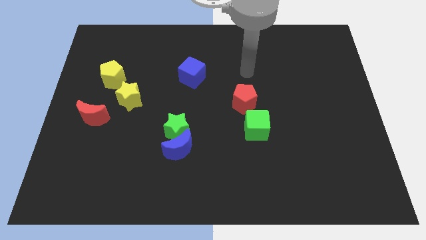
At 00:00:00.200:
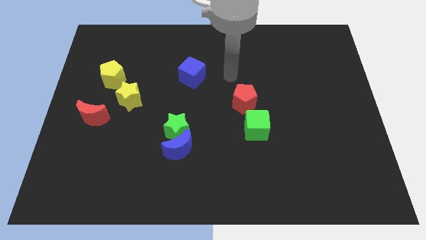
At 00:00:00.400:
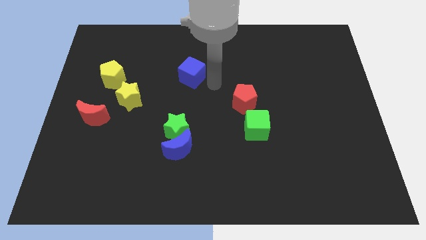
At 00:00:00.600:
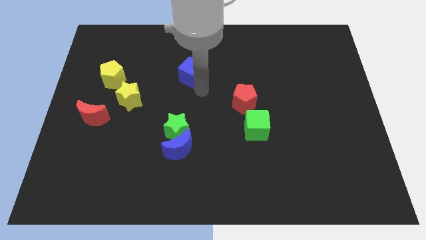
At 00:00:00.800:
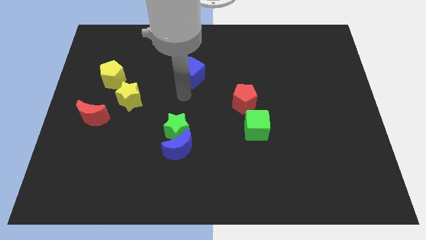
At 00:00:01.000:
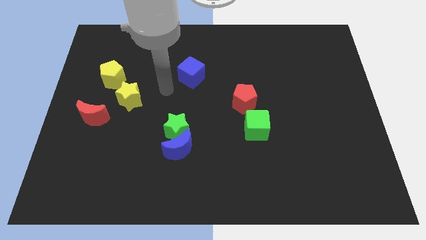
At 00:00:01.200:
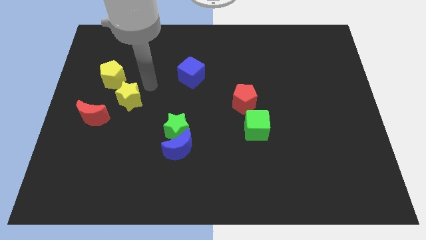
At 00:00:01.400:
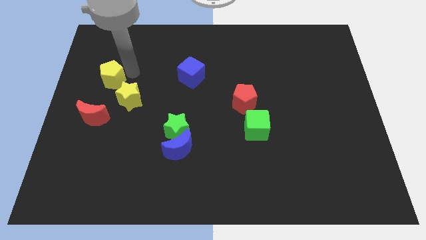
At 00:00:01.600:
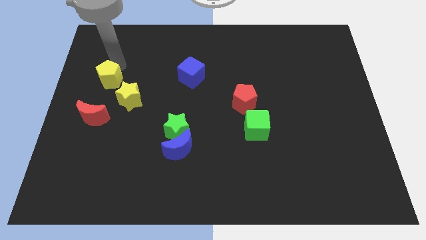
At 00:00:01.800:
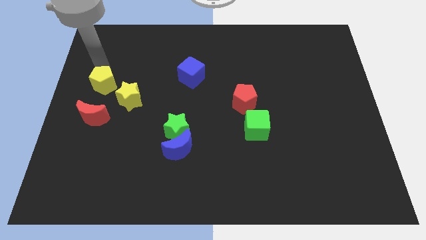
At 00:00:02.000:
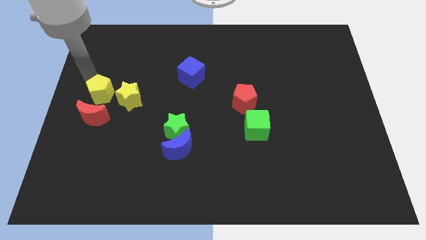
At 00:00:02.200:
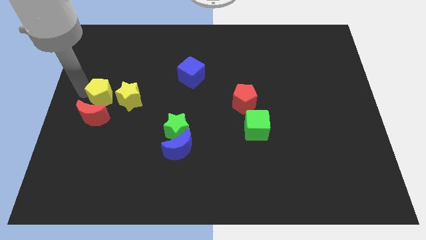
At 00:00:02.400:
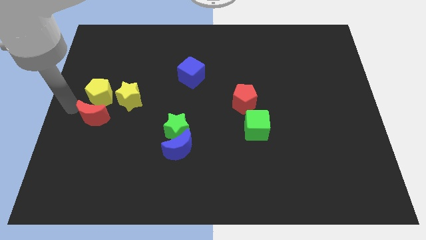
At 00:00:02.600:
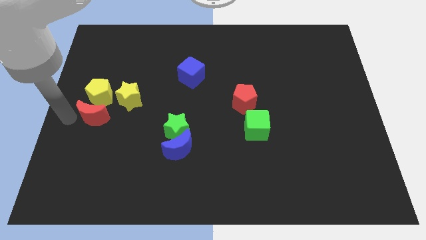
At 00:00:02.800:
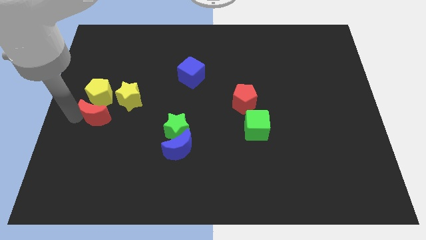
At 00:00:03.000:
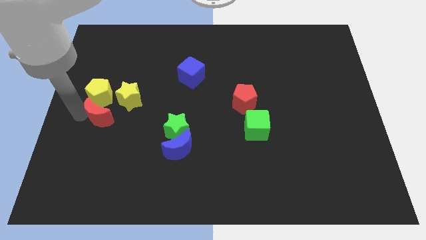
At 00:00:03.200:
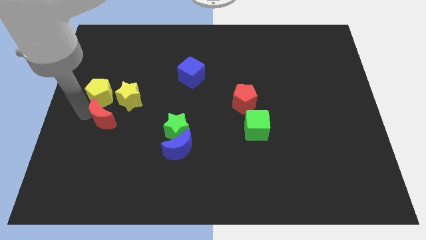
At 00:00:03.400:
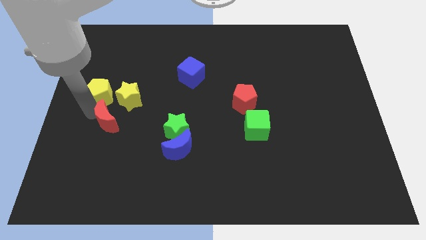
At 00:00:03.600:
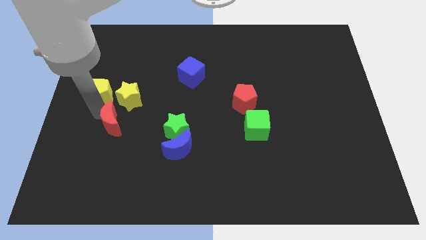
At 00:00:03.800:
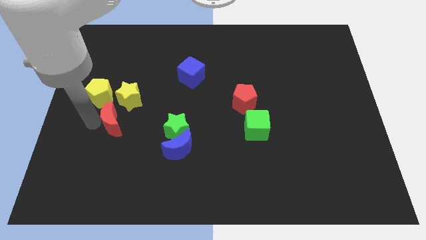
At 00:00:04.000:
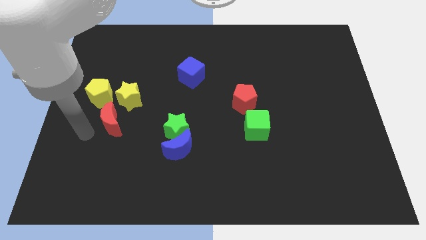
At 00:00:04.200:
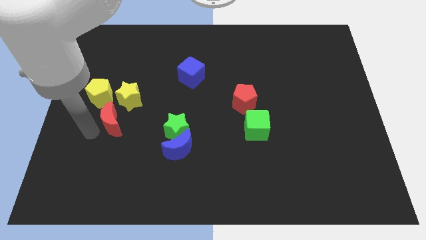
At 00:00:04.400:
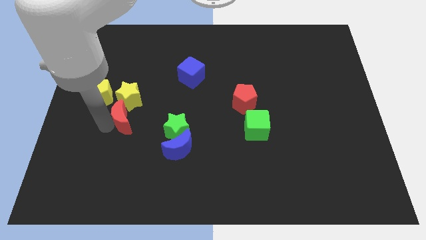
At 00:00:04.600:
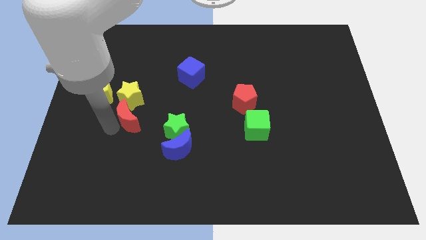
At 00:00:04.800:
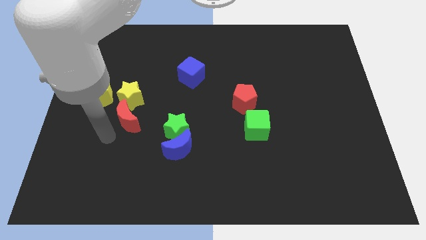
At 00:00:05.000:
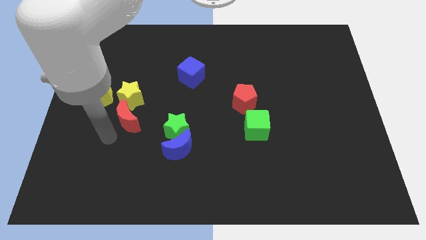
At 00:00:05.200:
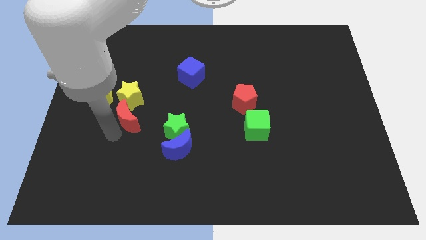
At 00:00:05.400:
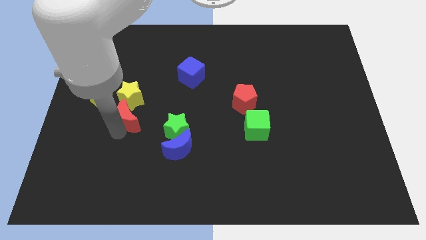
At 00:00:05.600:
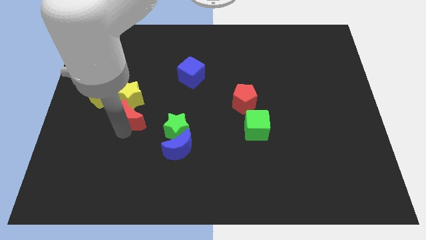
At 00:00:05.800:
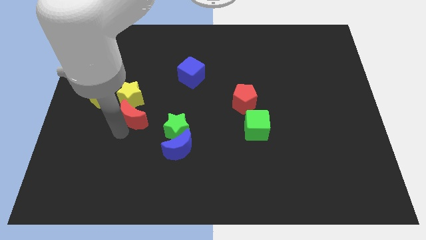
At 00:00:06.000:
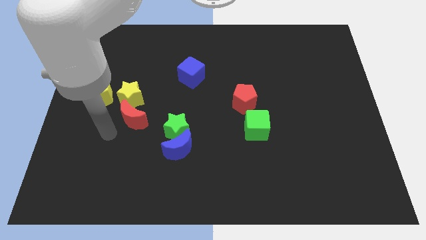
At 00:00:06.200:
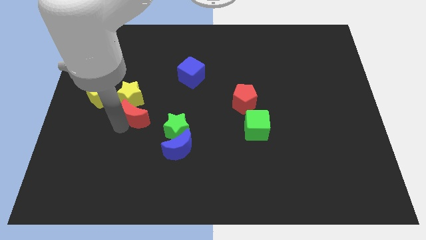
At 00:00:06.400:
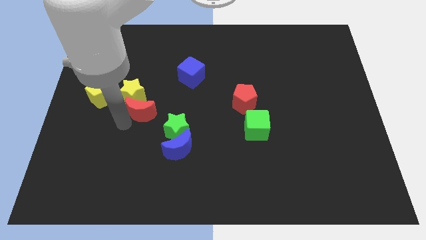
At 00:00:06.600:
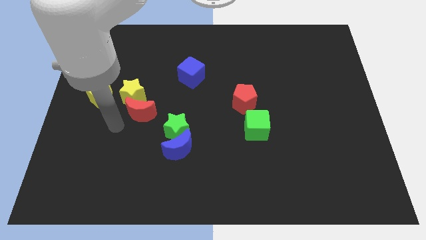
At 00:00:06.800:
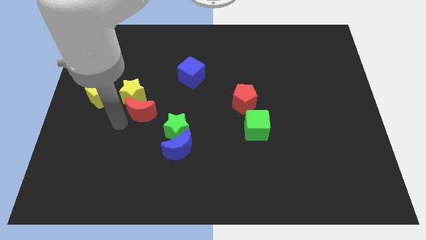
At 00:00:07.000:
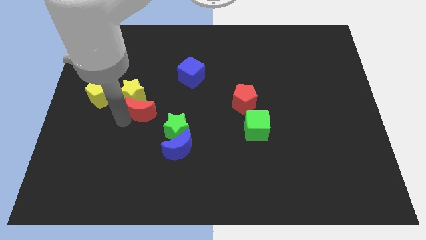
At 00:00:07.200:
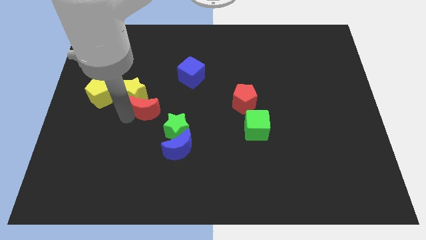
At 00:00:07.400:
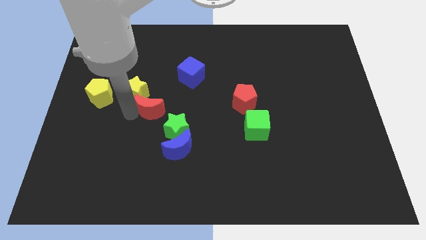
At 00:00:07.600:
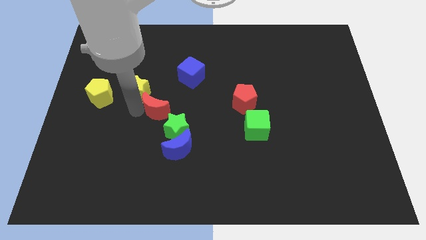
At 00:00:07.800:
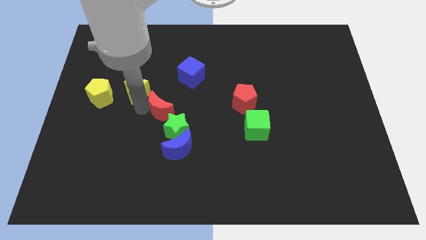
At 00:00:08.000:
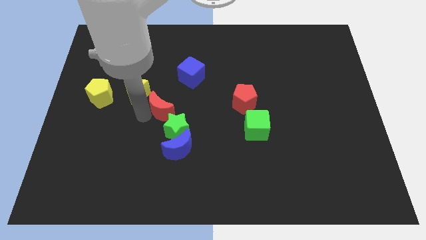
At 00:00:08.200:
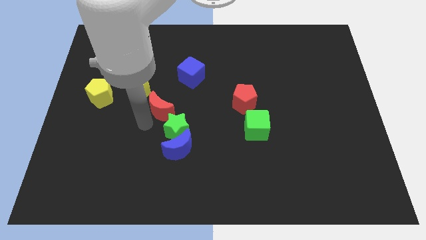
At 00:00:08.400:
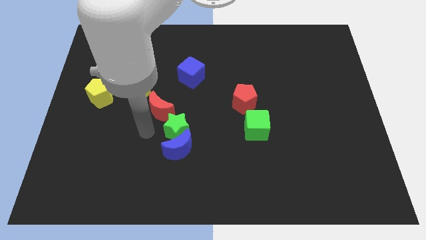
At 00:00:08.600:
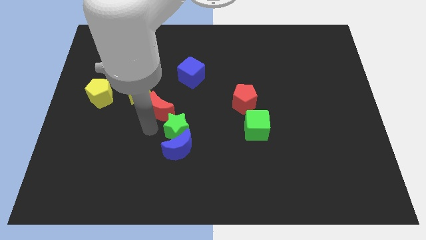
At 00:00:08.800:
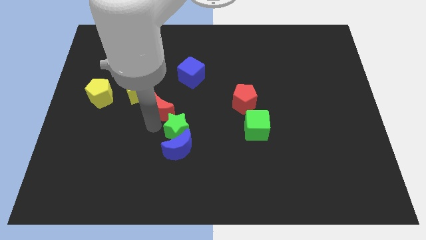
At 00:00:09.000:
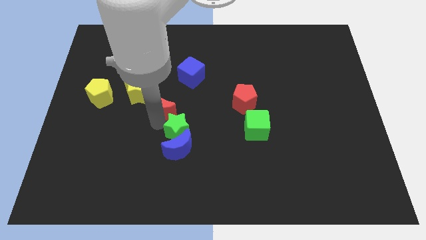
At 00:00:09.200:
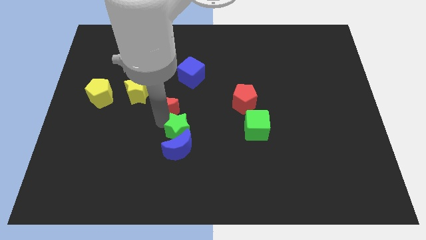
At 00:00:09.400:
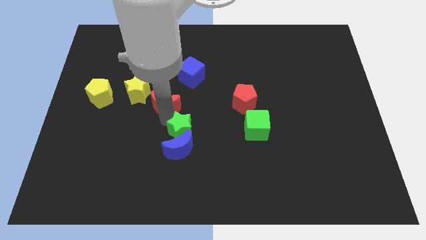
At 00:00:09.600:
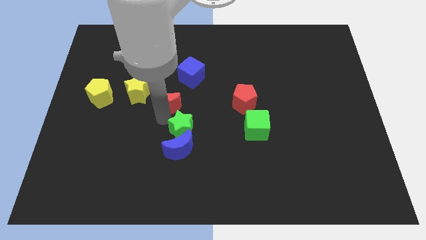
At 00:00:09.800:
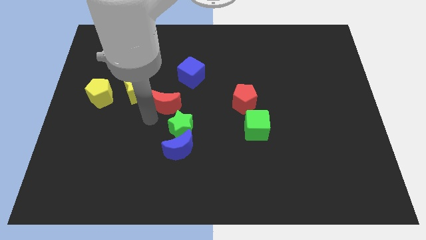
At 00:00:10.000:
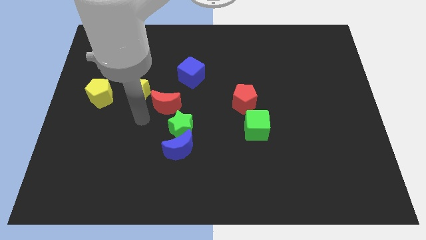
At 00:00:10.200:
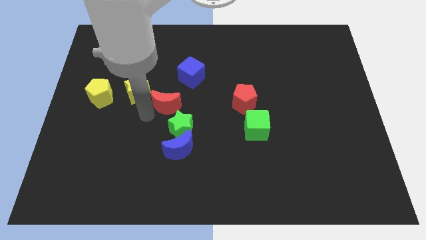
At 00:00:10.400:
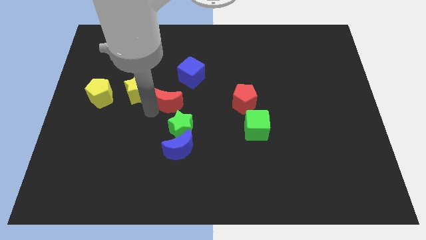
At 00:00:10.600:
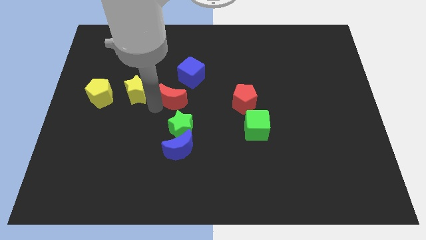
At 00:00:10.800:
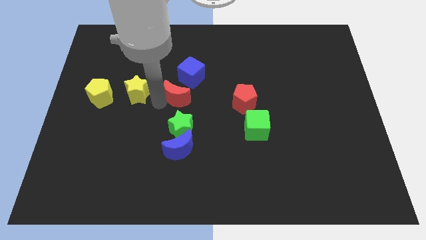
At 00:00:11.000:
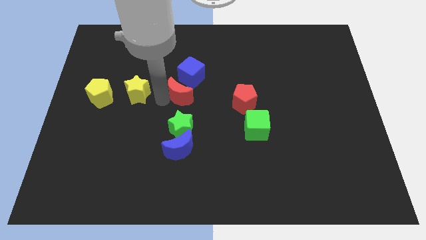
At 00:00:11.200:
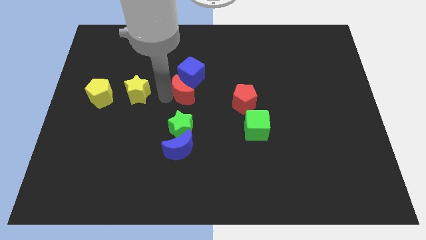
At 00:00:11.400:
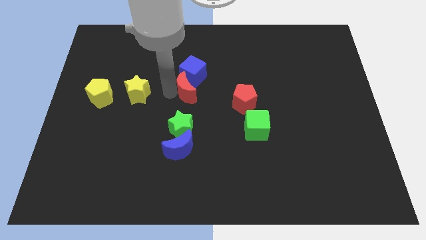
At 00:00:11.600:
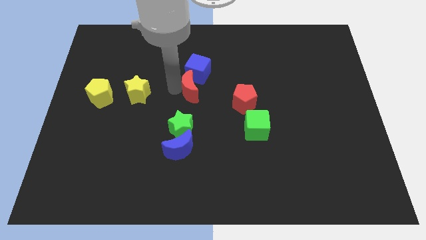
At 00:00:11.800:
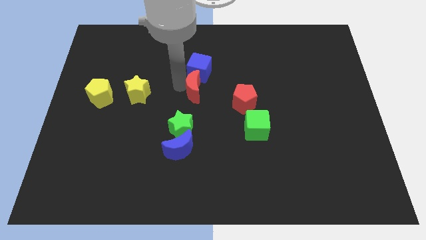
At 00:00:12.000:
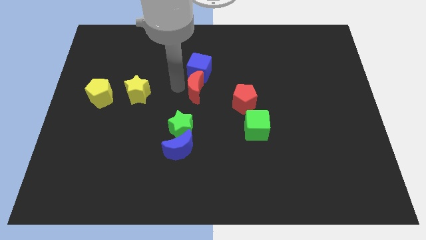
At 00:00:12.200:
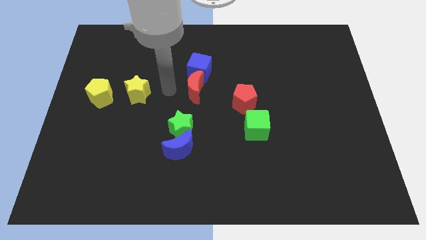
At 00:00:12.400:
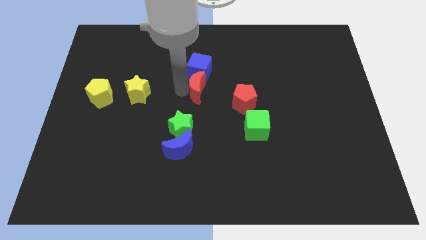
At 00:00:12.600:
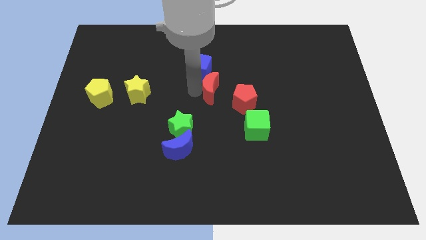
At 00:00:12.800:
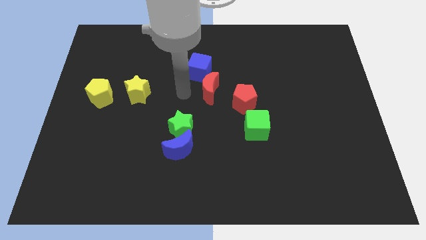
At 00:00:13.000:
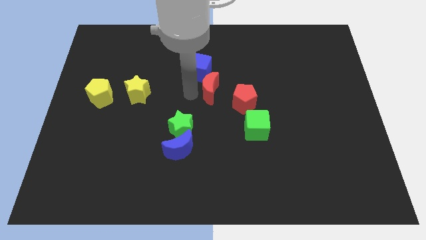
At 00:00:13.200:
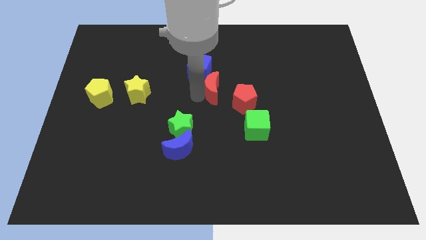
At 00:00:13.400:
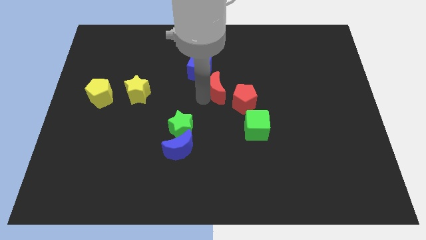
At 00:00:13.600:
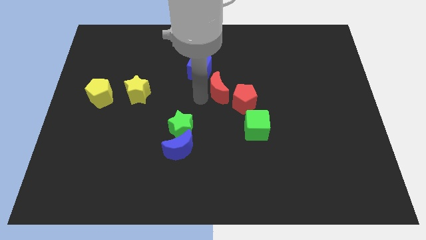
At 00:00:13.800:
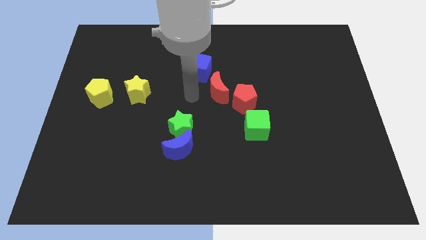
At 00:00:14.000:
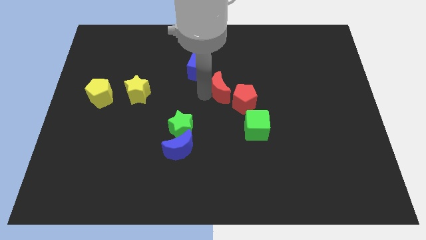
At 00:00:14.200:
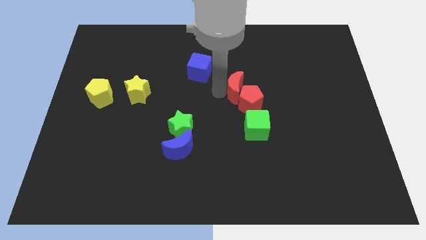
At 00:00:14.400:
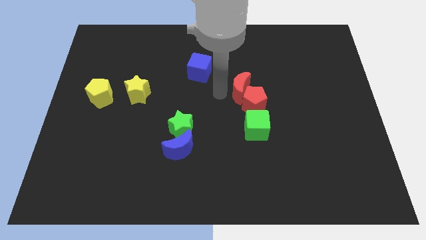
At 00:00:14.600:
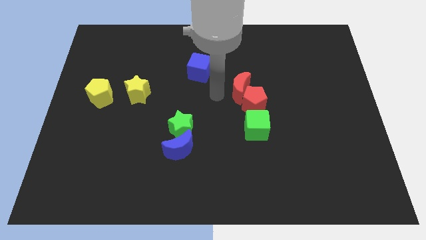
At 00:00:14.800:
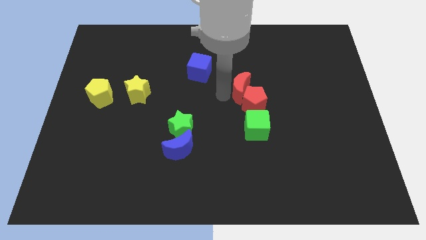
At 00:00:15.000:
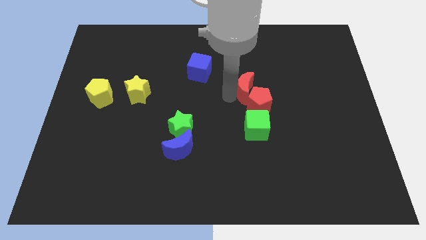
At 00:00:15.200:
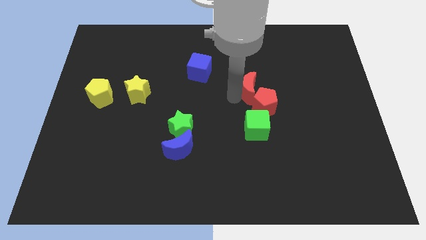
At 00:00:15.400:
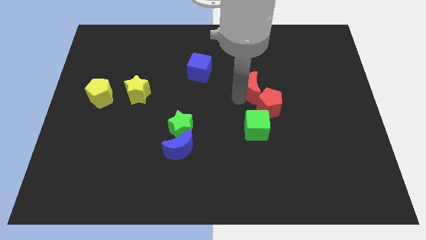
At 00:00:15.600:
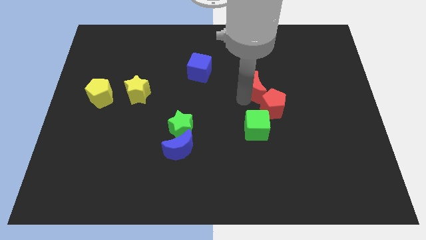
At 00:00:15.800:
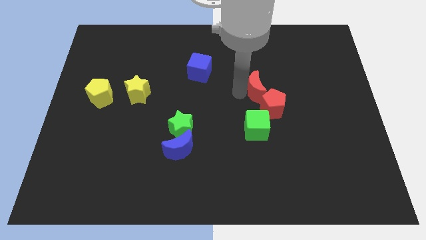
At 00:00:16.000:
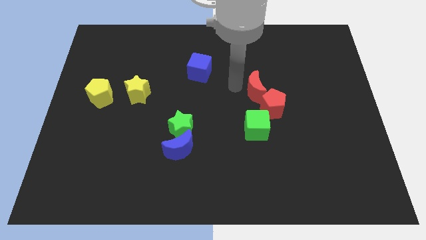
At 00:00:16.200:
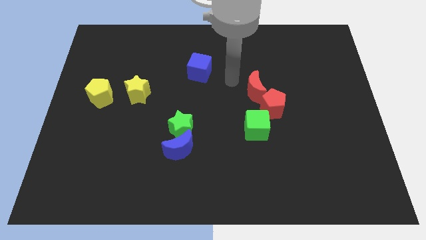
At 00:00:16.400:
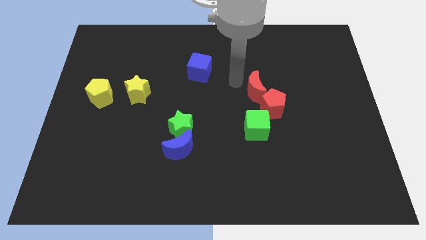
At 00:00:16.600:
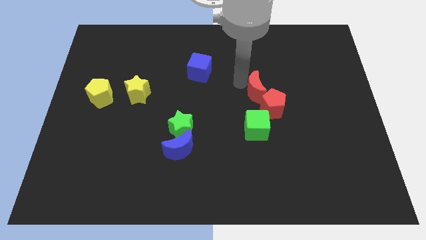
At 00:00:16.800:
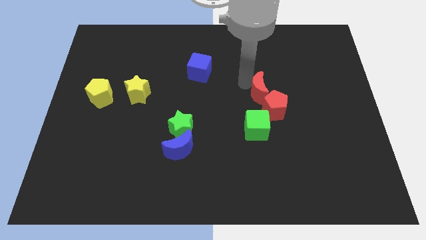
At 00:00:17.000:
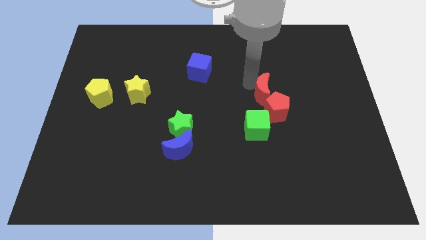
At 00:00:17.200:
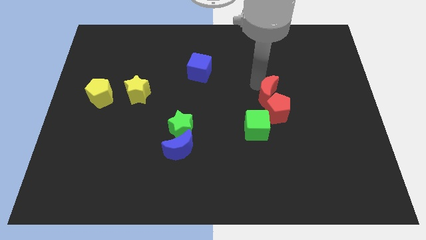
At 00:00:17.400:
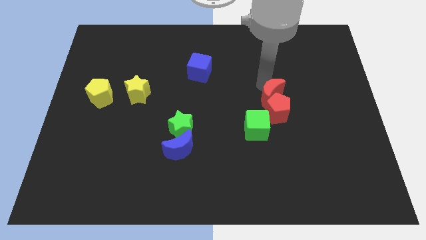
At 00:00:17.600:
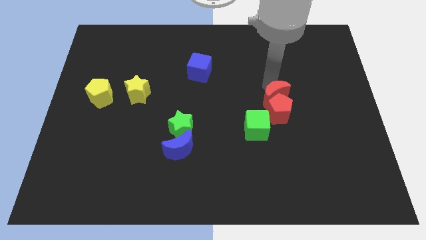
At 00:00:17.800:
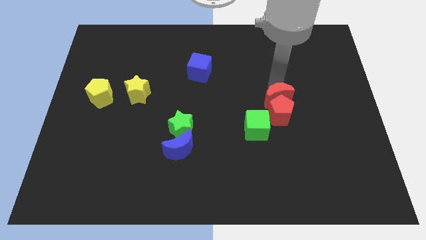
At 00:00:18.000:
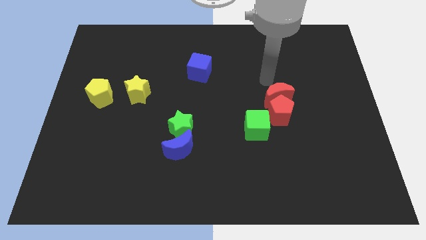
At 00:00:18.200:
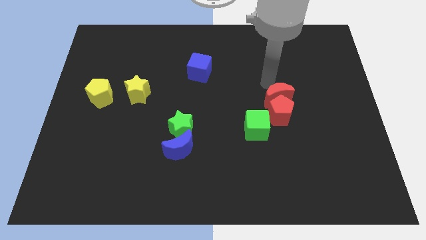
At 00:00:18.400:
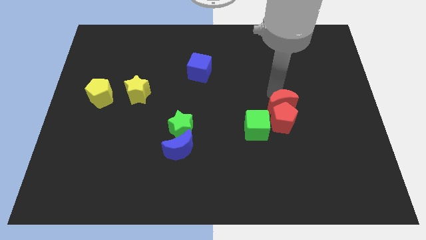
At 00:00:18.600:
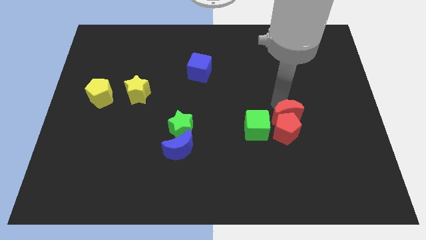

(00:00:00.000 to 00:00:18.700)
move the red moon right of the green cube
